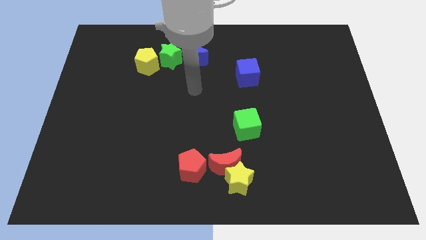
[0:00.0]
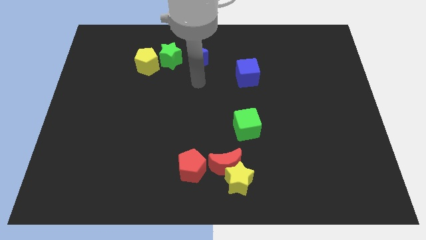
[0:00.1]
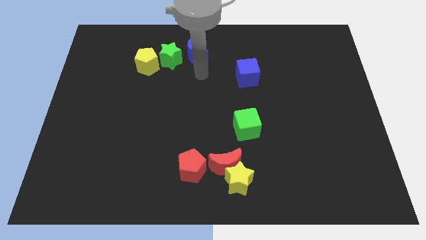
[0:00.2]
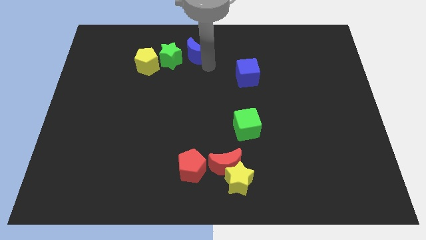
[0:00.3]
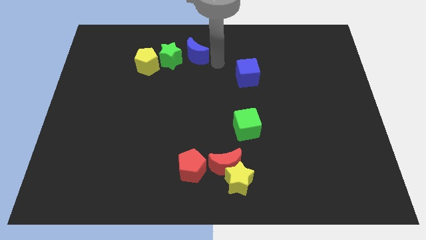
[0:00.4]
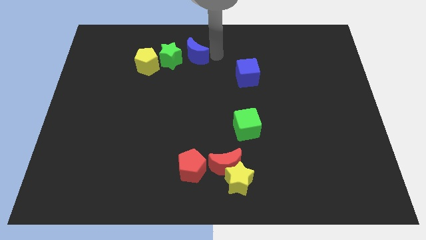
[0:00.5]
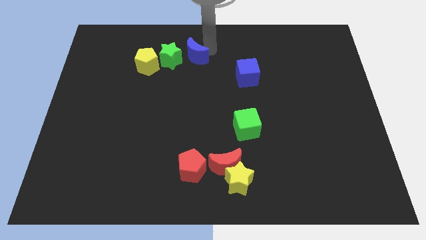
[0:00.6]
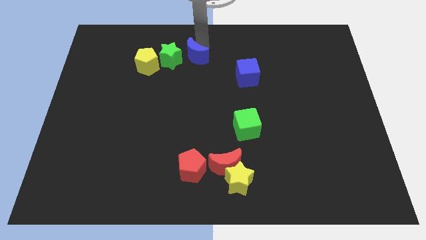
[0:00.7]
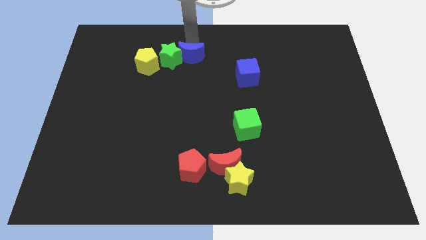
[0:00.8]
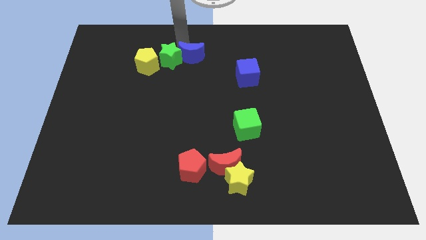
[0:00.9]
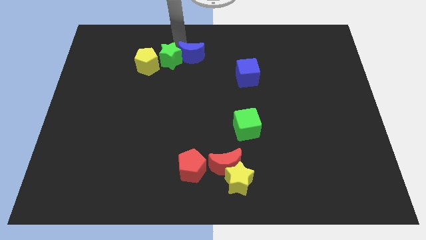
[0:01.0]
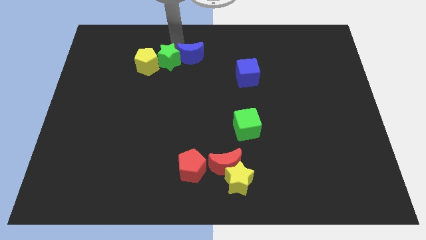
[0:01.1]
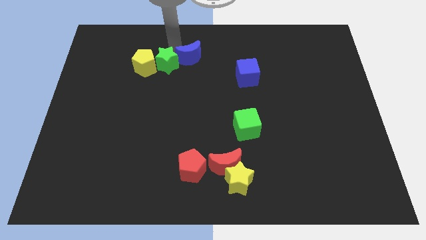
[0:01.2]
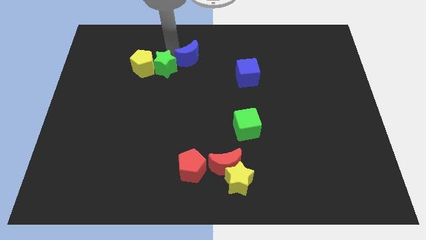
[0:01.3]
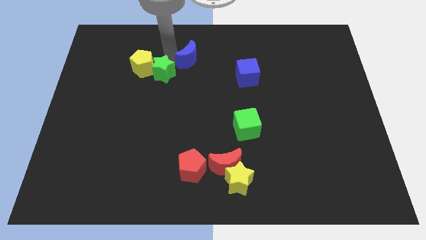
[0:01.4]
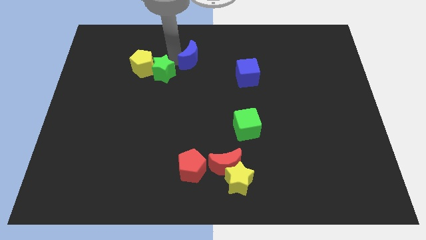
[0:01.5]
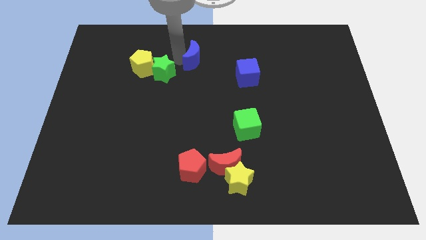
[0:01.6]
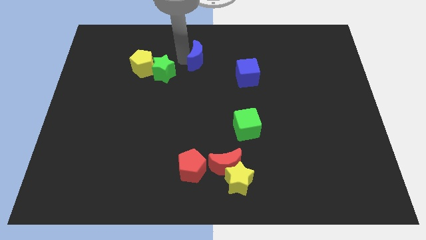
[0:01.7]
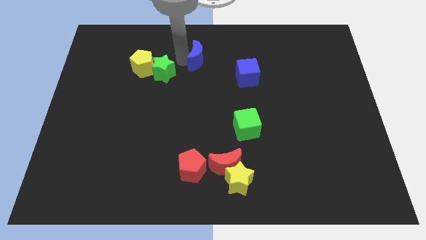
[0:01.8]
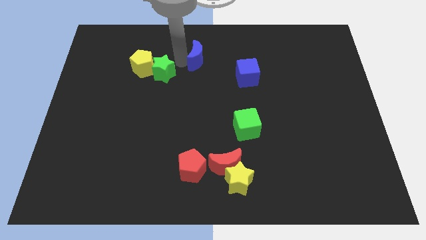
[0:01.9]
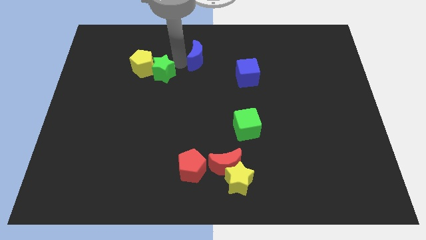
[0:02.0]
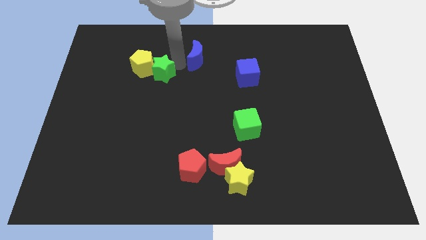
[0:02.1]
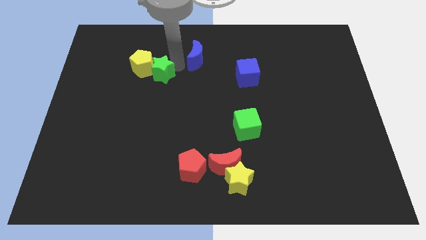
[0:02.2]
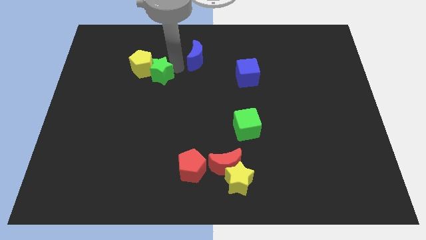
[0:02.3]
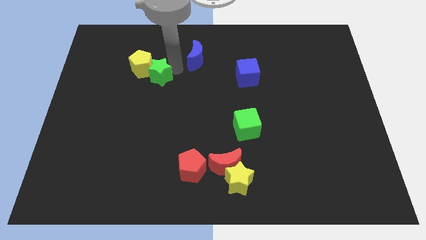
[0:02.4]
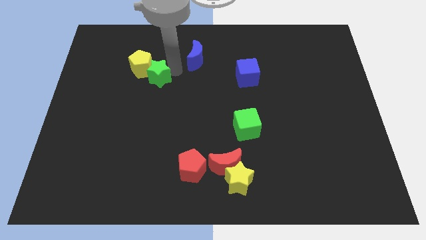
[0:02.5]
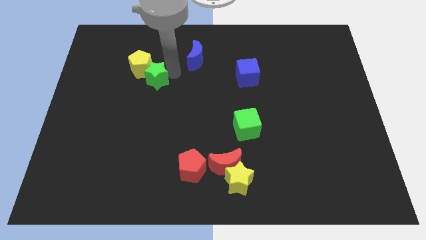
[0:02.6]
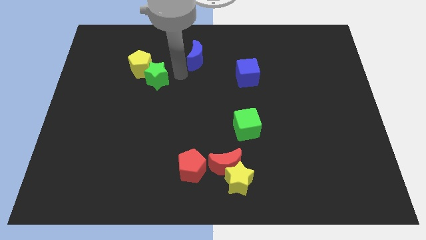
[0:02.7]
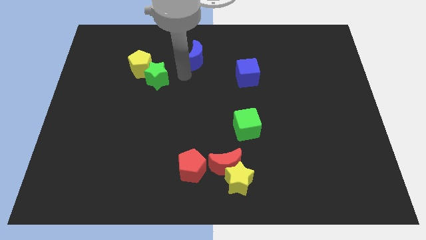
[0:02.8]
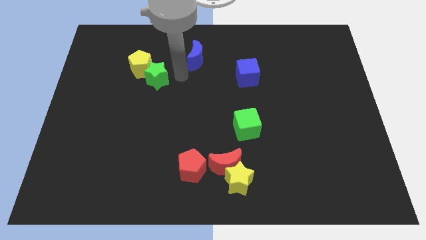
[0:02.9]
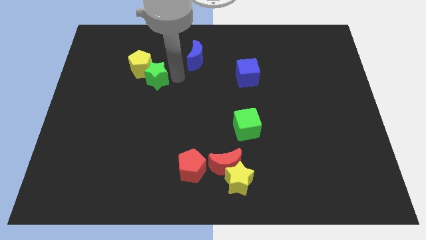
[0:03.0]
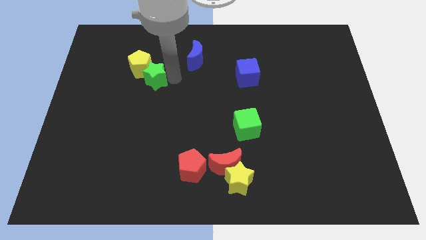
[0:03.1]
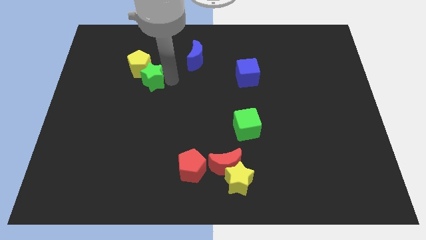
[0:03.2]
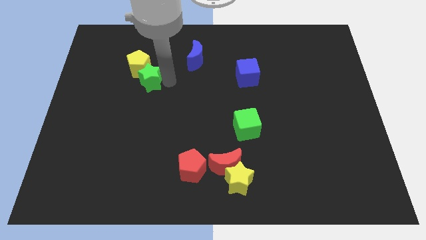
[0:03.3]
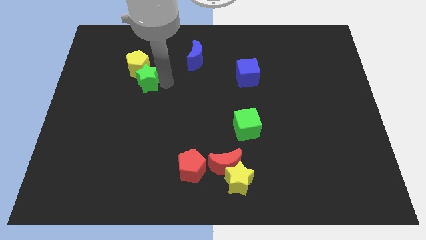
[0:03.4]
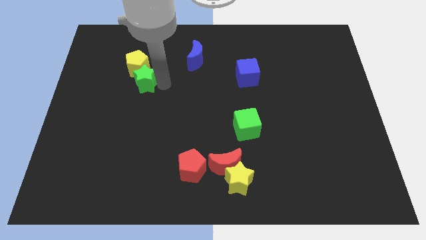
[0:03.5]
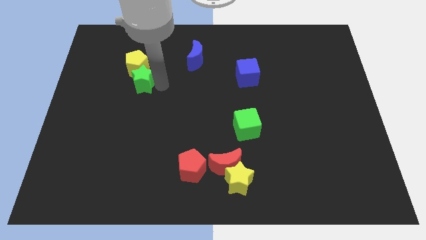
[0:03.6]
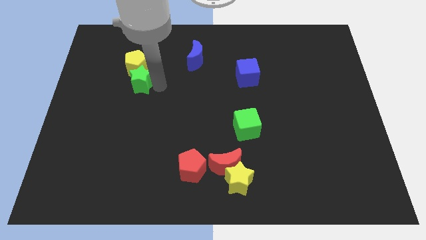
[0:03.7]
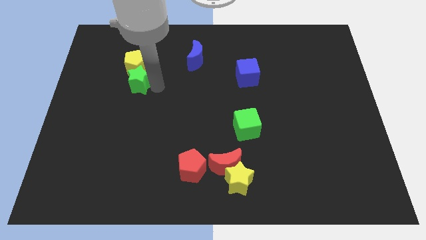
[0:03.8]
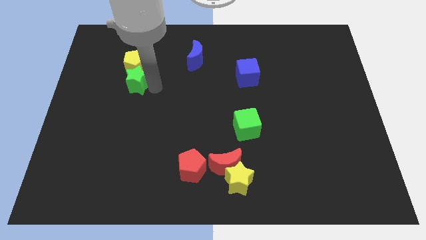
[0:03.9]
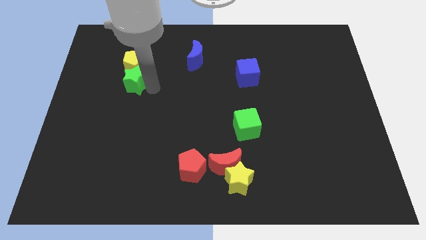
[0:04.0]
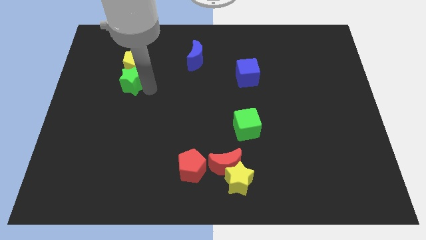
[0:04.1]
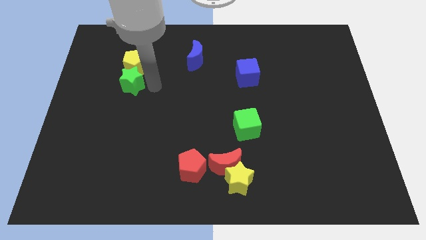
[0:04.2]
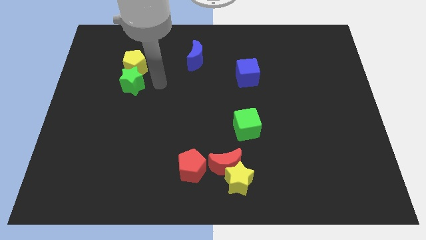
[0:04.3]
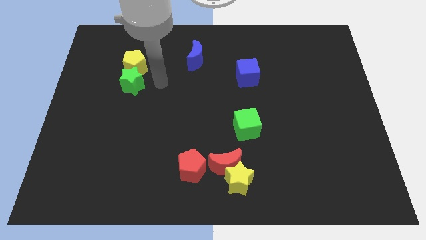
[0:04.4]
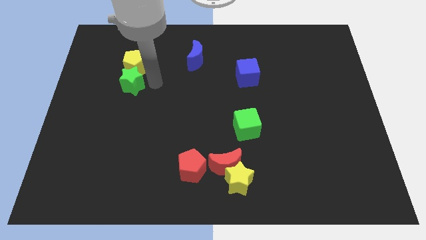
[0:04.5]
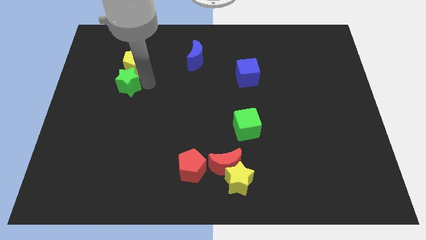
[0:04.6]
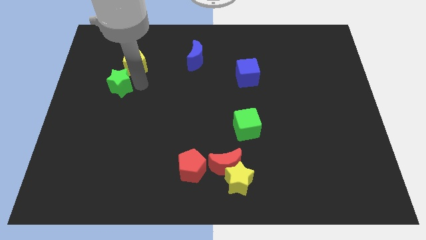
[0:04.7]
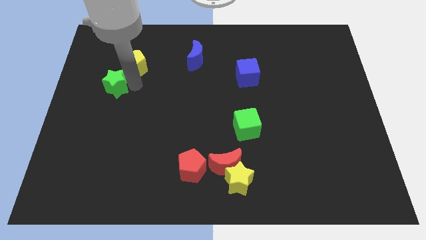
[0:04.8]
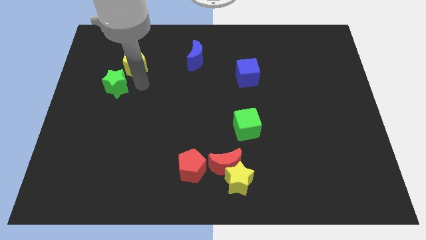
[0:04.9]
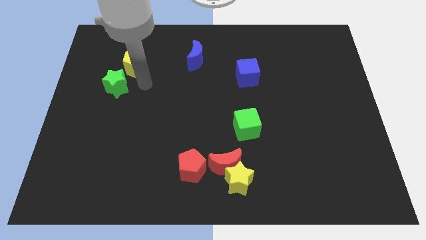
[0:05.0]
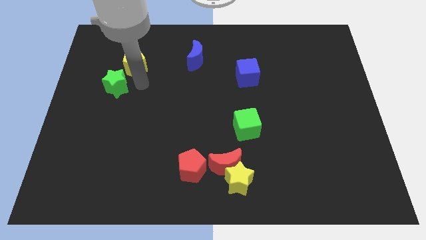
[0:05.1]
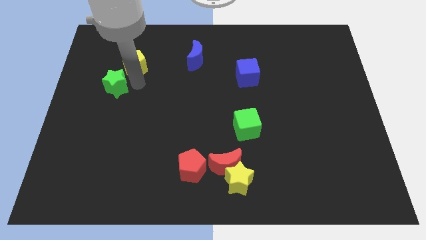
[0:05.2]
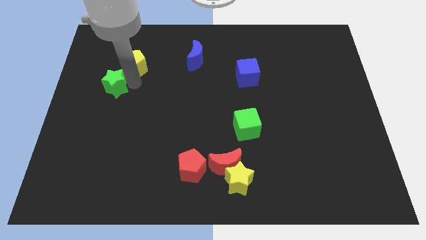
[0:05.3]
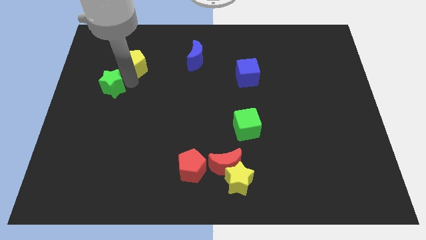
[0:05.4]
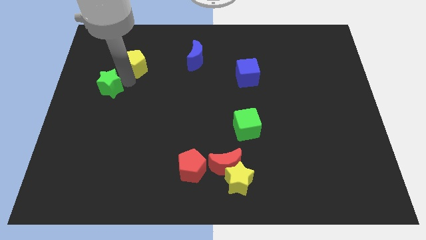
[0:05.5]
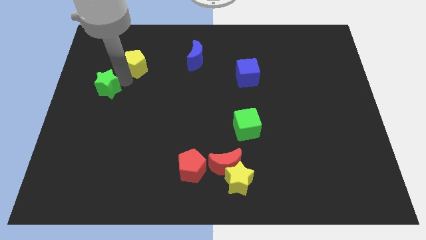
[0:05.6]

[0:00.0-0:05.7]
push the green star to the left side of the board

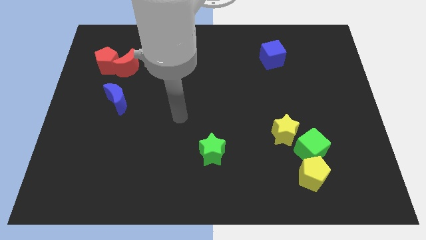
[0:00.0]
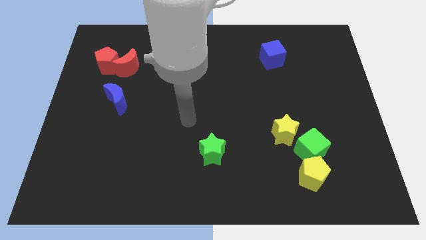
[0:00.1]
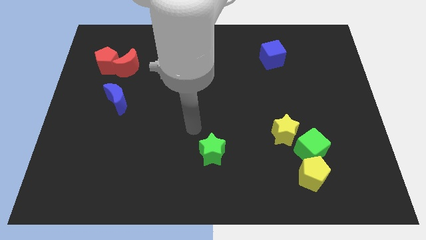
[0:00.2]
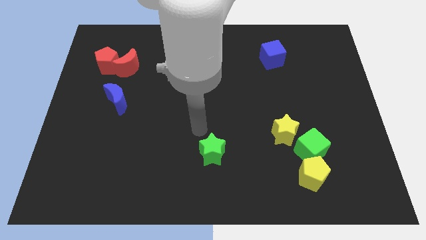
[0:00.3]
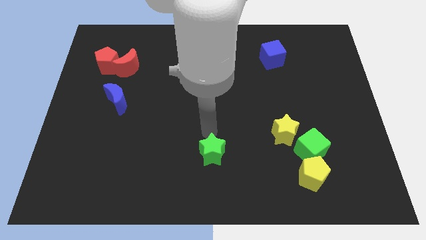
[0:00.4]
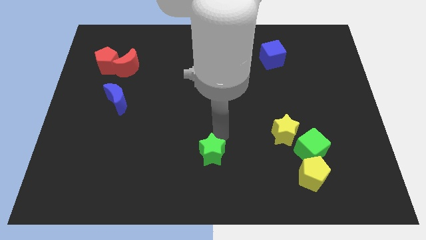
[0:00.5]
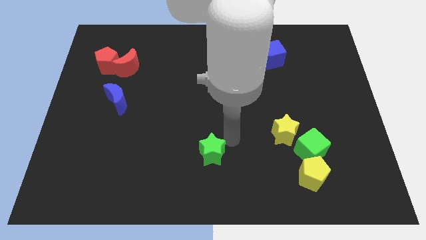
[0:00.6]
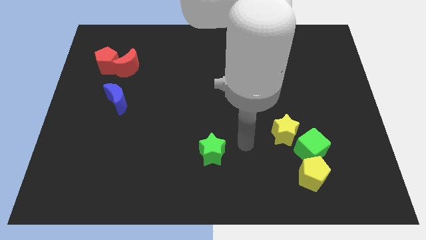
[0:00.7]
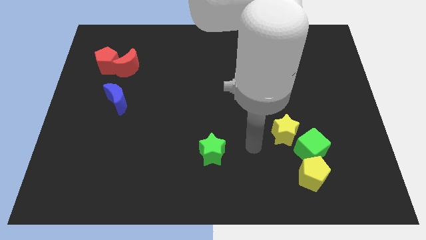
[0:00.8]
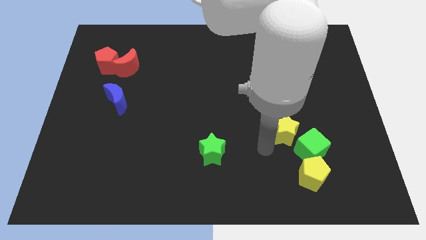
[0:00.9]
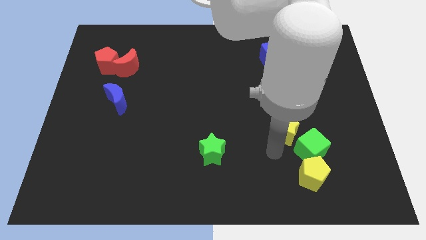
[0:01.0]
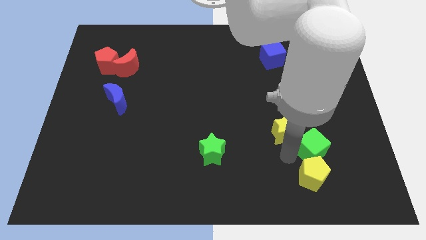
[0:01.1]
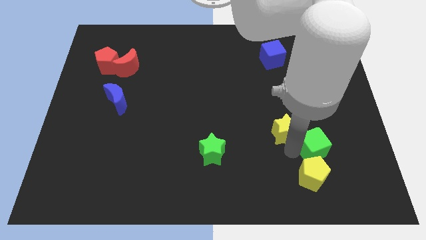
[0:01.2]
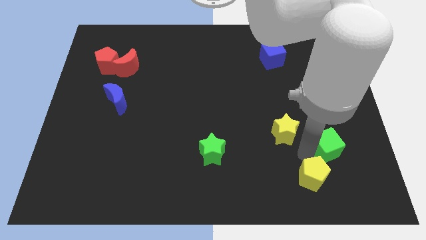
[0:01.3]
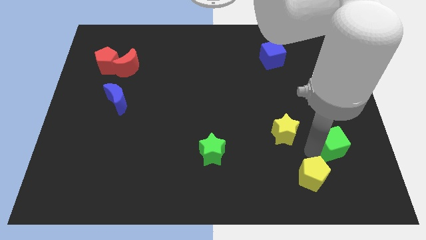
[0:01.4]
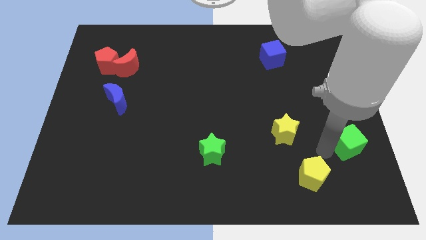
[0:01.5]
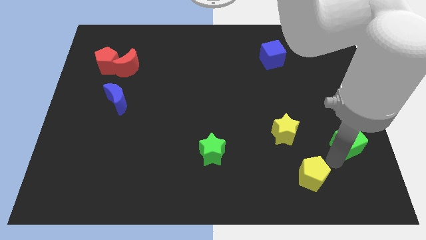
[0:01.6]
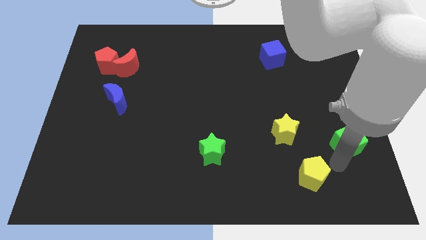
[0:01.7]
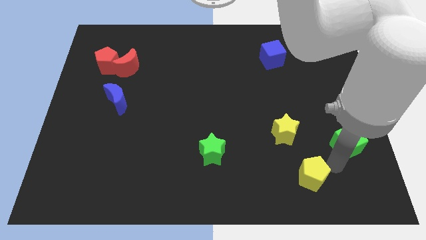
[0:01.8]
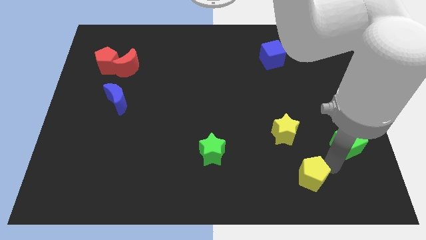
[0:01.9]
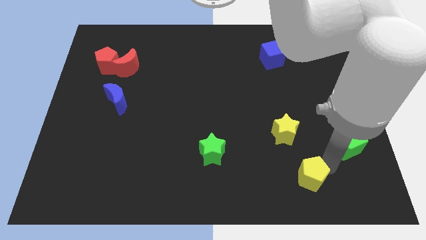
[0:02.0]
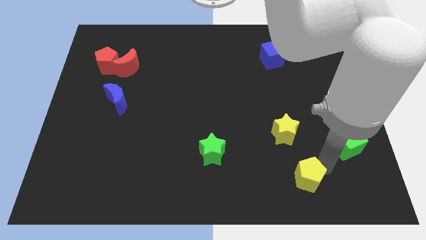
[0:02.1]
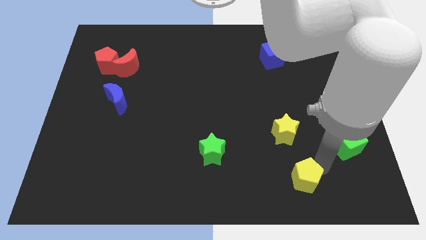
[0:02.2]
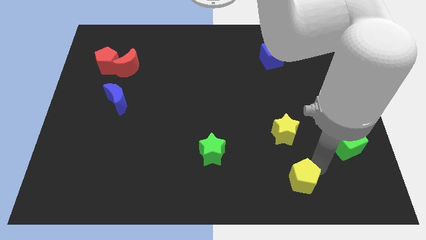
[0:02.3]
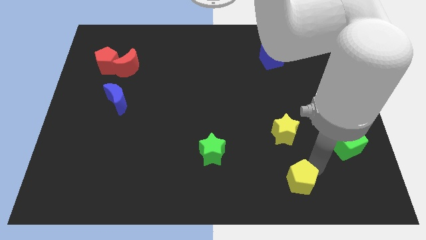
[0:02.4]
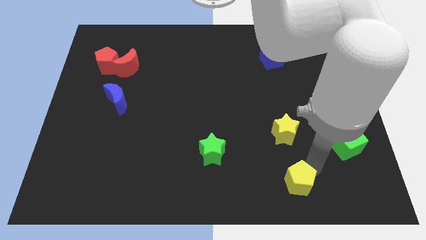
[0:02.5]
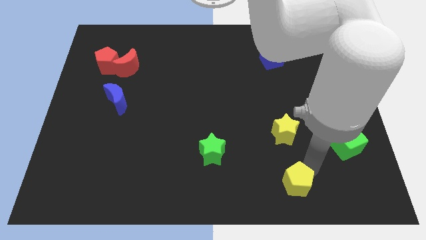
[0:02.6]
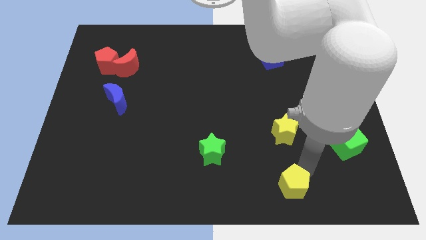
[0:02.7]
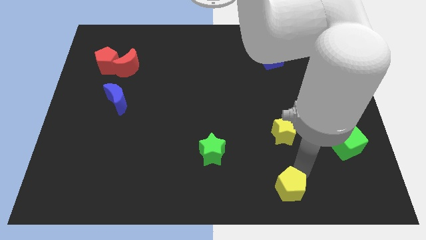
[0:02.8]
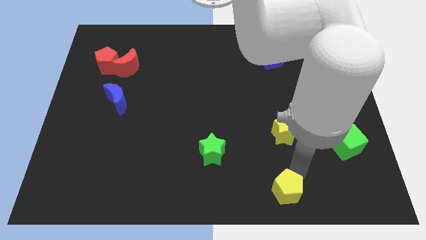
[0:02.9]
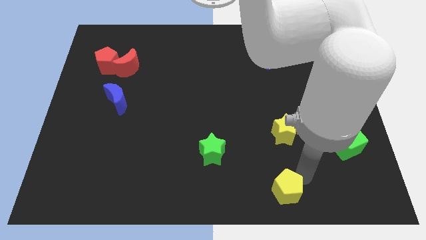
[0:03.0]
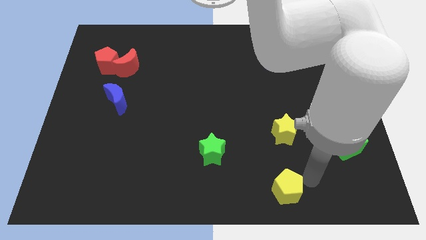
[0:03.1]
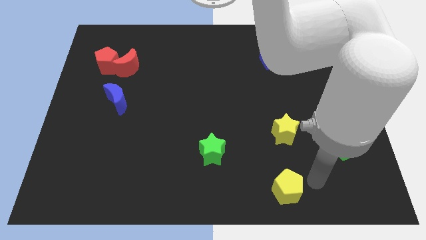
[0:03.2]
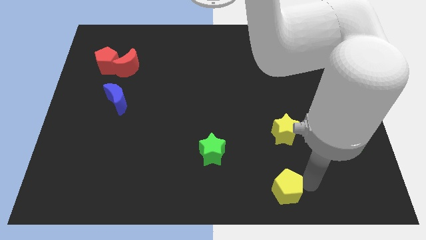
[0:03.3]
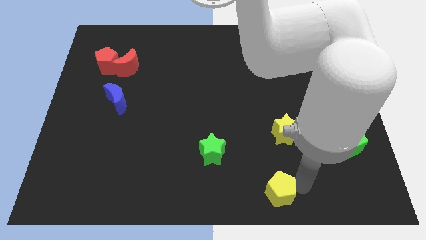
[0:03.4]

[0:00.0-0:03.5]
put the yellow pentagon to the bottom side
